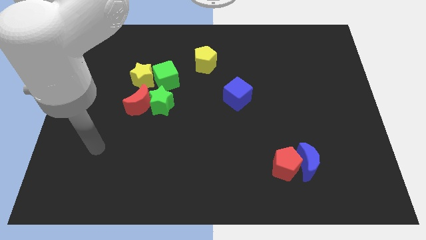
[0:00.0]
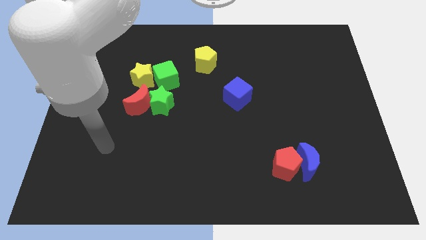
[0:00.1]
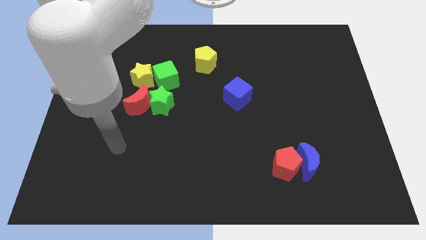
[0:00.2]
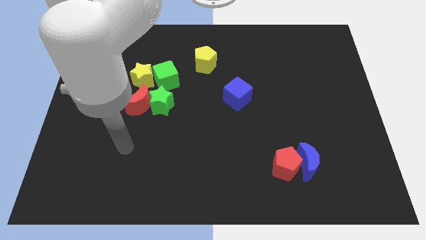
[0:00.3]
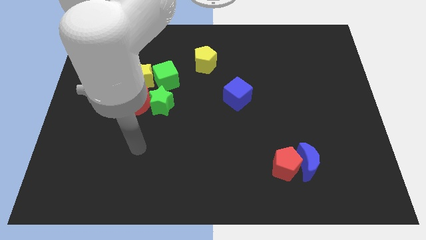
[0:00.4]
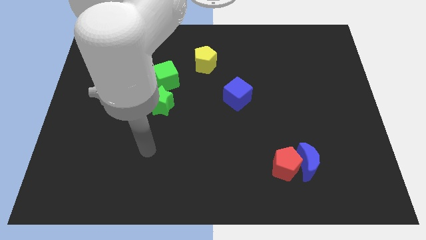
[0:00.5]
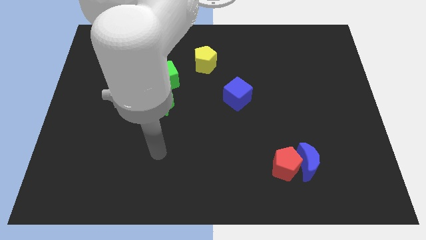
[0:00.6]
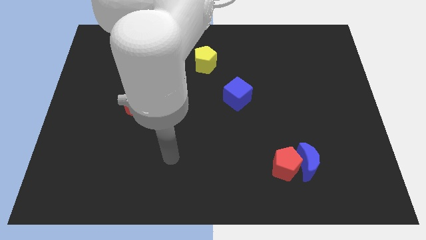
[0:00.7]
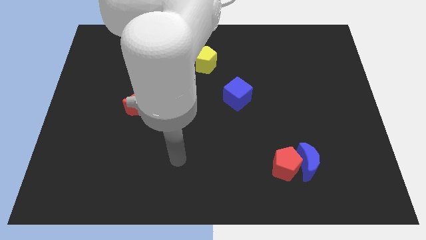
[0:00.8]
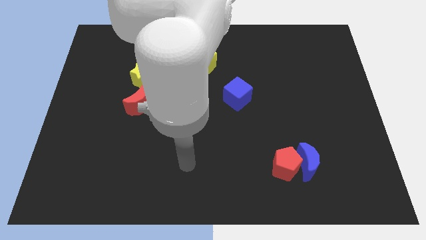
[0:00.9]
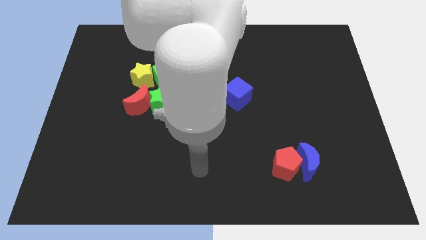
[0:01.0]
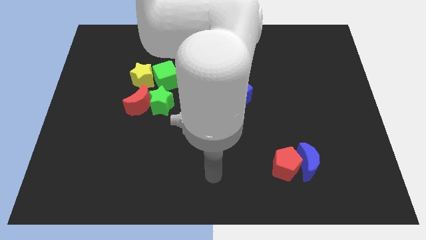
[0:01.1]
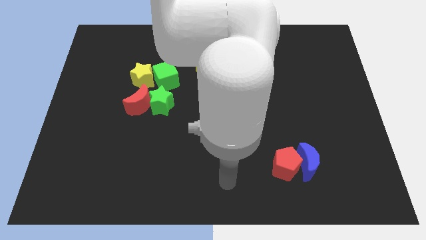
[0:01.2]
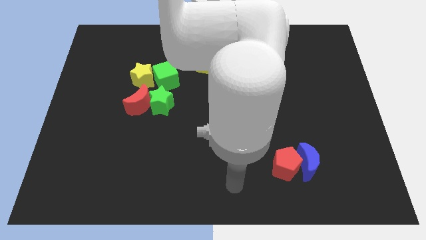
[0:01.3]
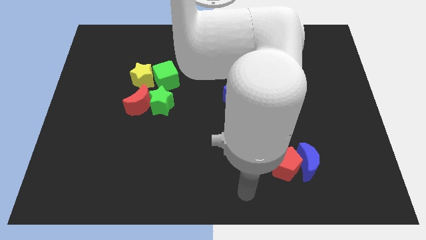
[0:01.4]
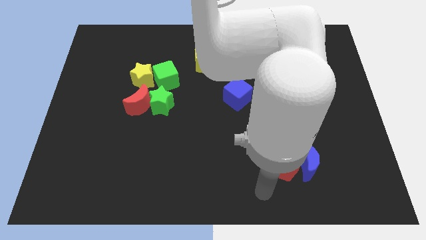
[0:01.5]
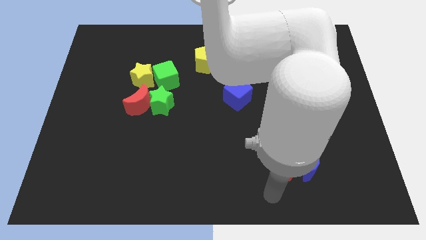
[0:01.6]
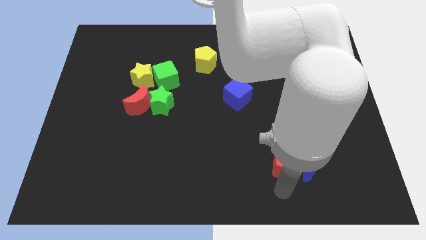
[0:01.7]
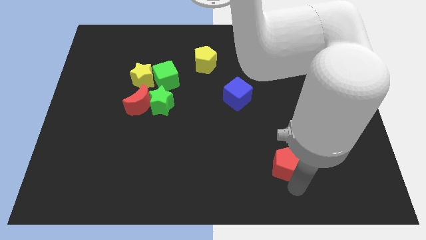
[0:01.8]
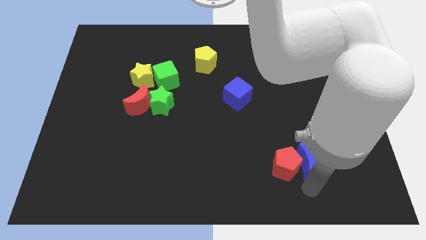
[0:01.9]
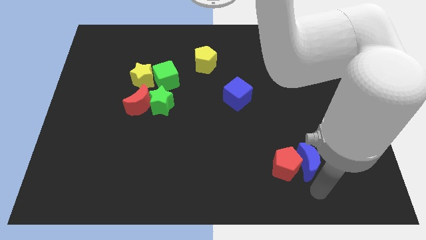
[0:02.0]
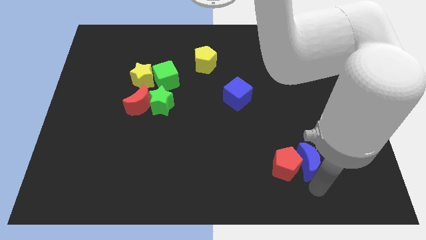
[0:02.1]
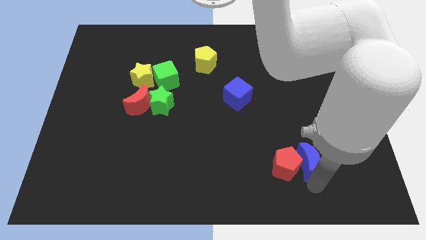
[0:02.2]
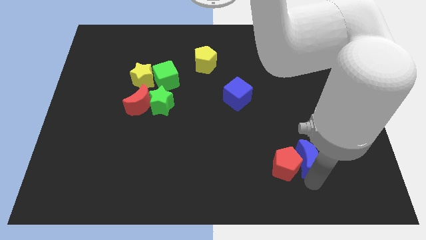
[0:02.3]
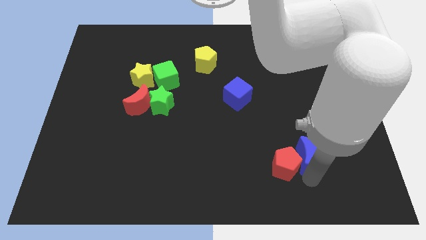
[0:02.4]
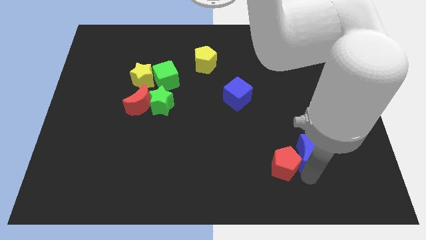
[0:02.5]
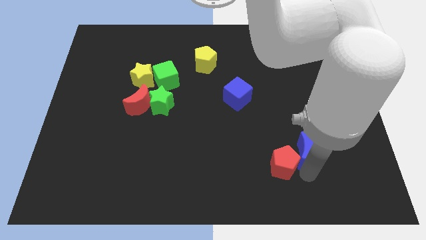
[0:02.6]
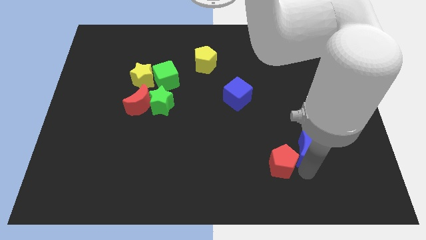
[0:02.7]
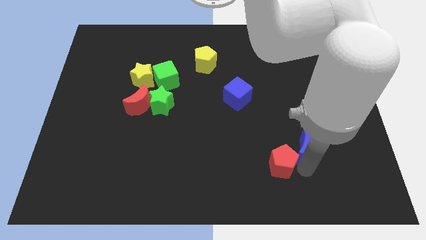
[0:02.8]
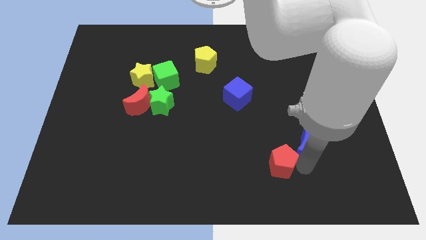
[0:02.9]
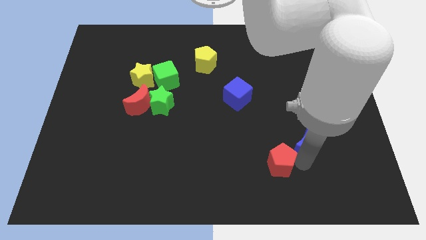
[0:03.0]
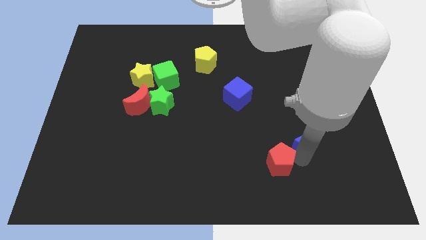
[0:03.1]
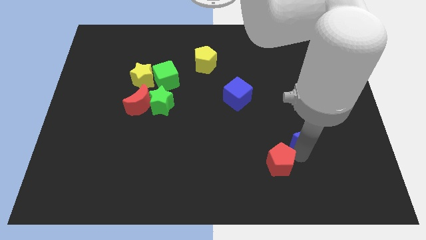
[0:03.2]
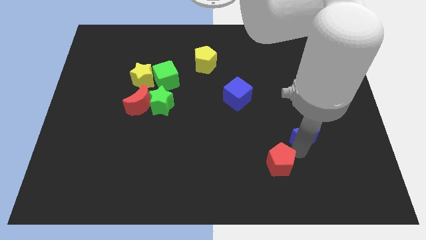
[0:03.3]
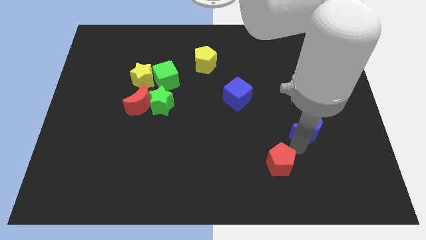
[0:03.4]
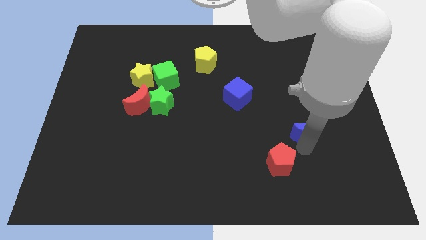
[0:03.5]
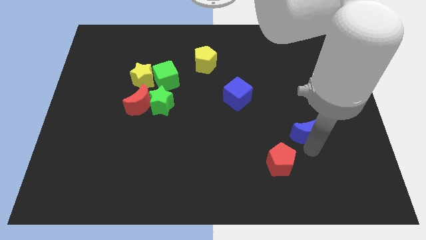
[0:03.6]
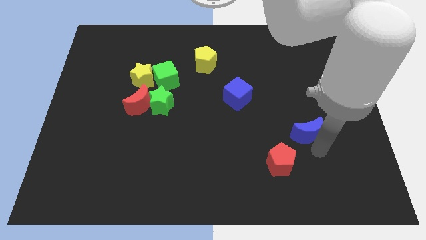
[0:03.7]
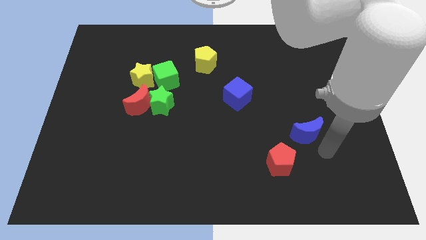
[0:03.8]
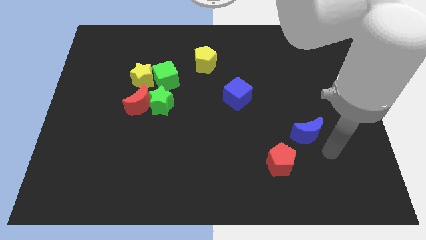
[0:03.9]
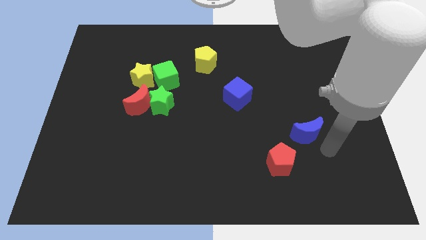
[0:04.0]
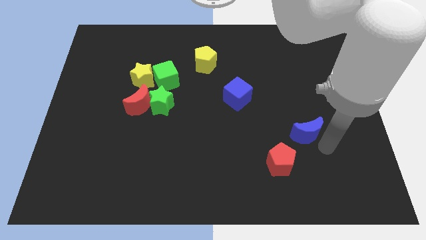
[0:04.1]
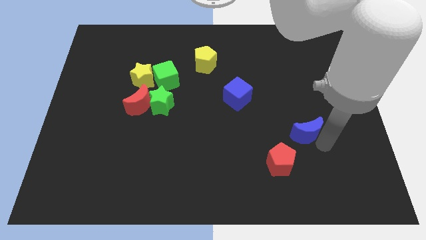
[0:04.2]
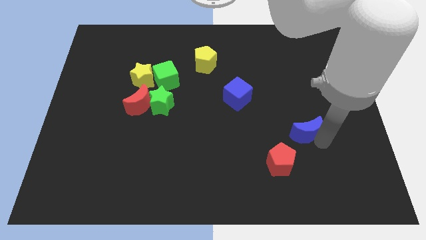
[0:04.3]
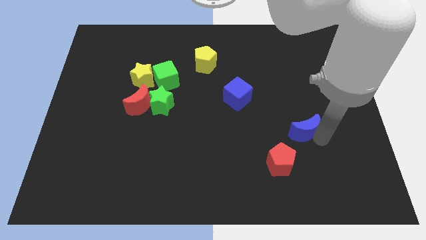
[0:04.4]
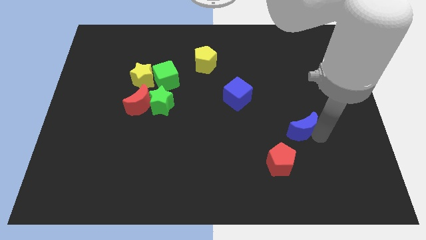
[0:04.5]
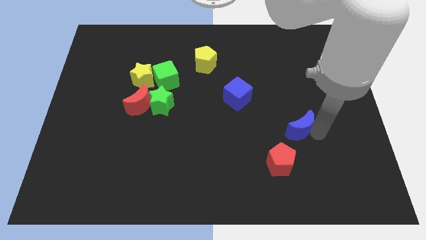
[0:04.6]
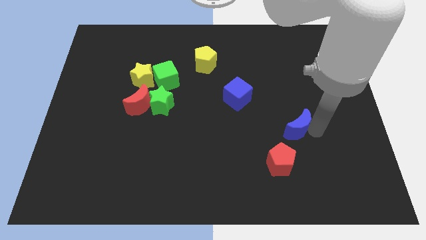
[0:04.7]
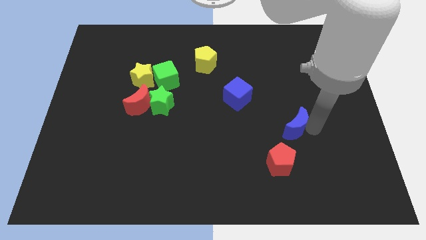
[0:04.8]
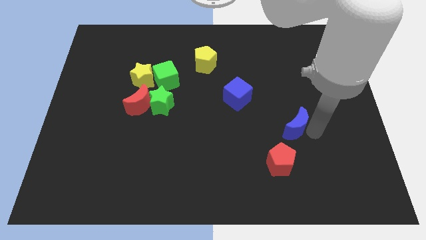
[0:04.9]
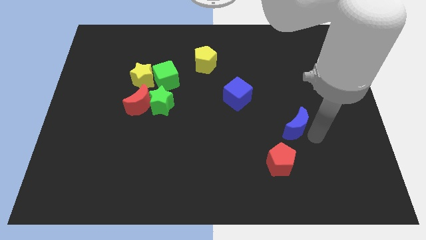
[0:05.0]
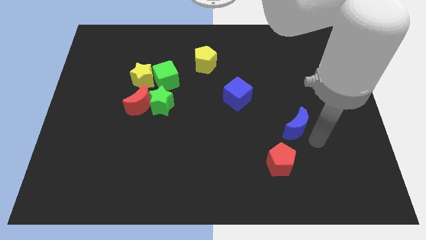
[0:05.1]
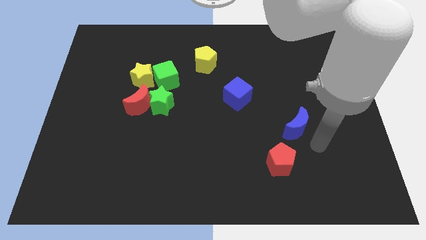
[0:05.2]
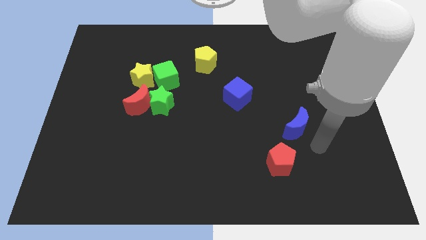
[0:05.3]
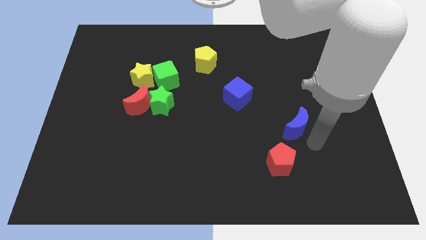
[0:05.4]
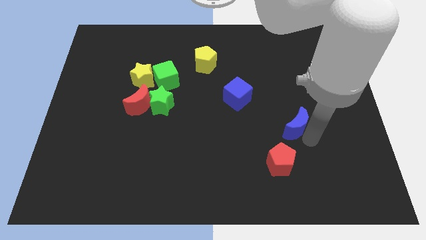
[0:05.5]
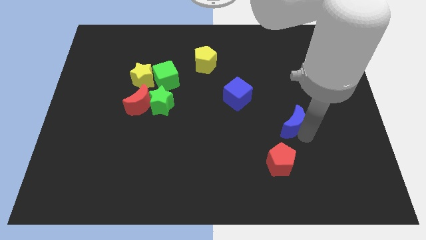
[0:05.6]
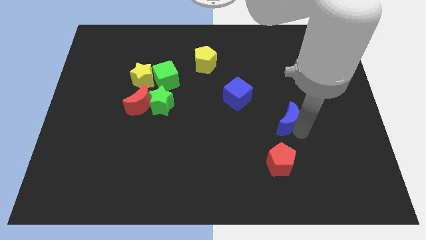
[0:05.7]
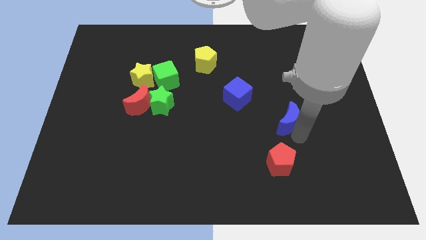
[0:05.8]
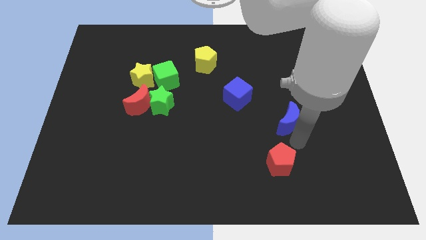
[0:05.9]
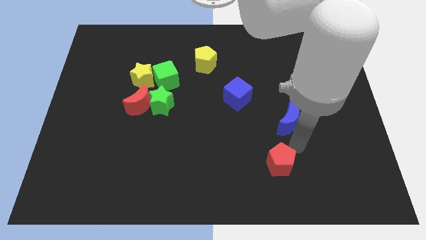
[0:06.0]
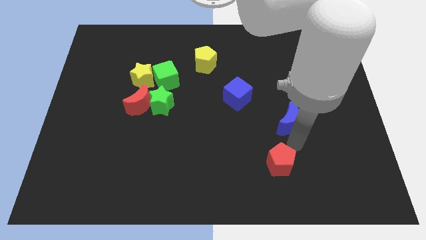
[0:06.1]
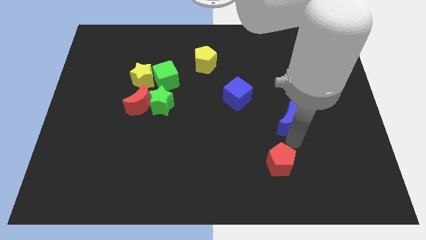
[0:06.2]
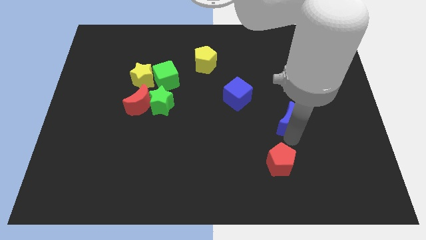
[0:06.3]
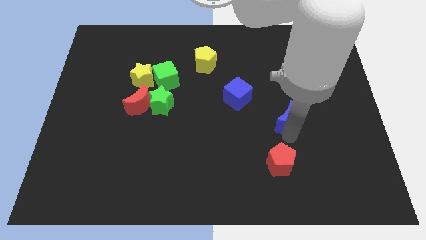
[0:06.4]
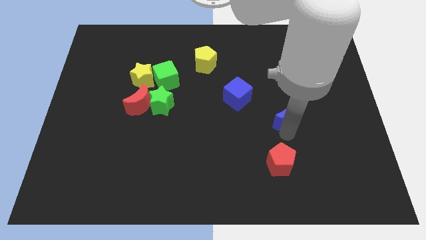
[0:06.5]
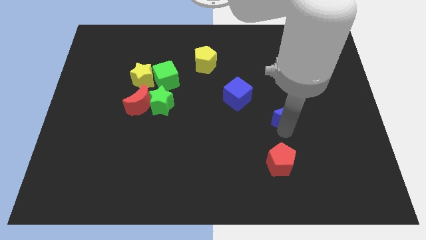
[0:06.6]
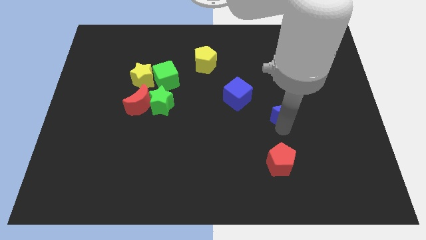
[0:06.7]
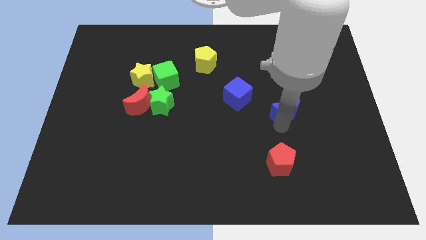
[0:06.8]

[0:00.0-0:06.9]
move the blue moon to the right side of the blue cube
